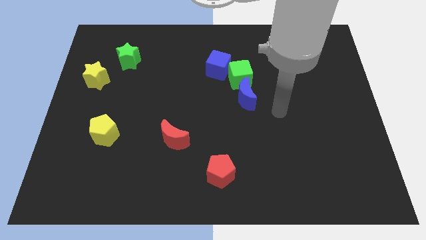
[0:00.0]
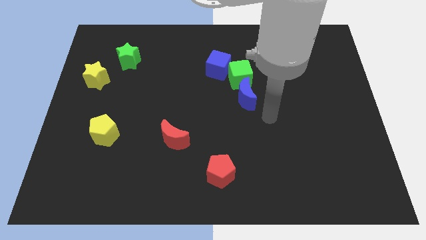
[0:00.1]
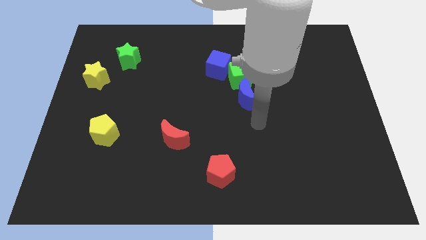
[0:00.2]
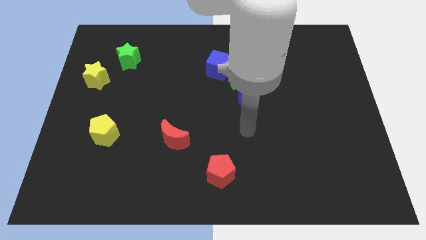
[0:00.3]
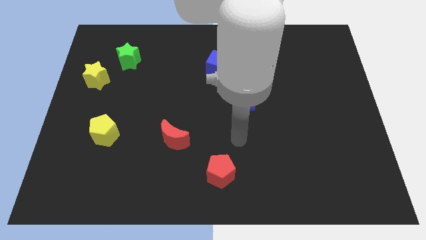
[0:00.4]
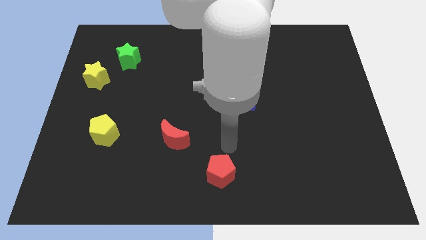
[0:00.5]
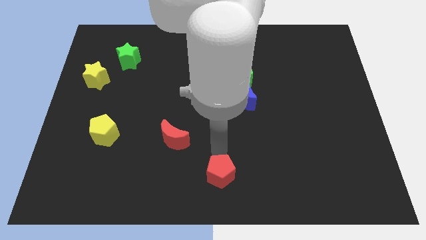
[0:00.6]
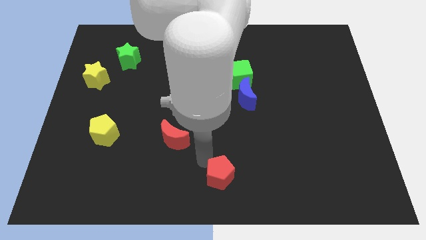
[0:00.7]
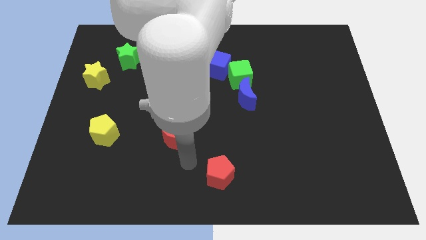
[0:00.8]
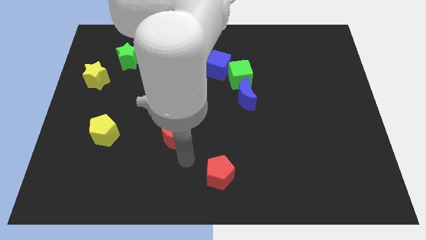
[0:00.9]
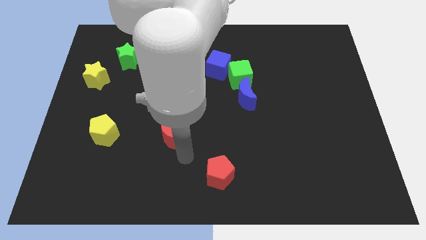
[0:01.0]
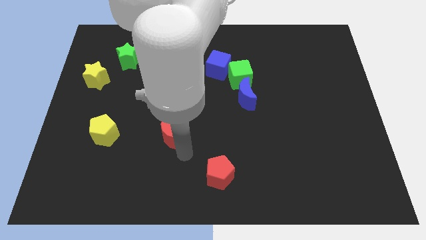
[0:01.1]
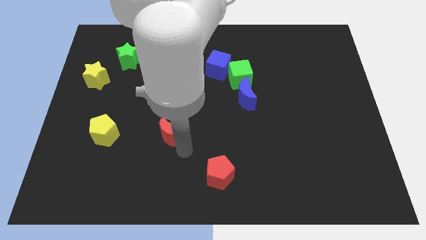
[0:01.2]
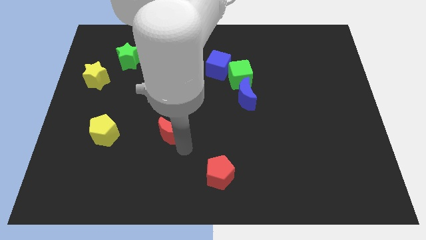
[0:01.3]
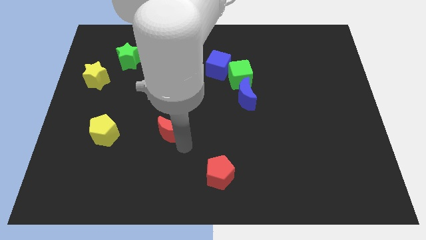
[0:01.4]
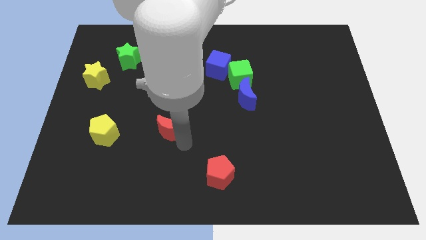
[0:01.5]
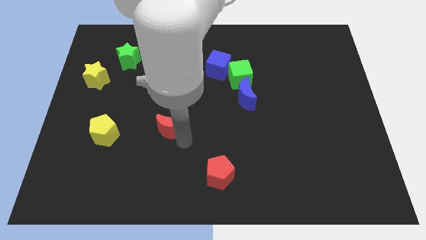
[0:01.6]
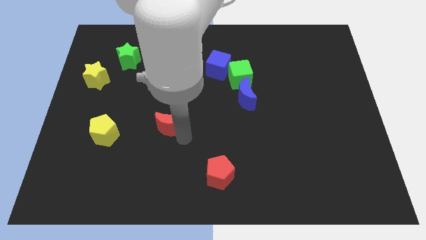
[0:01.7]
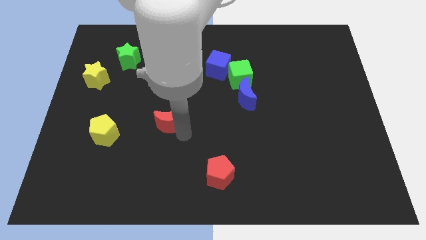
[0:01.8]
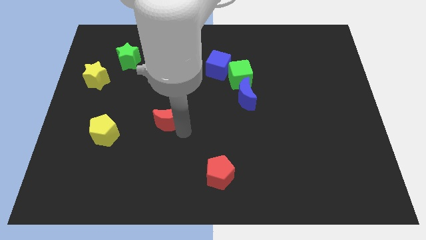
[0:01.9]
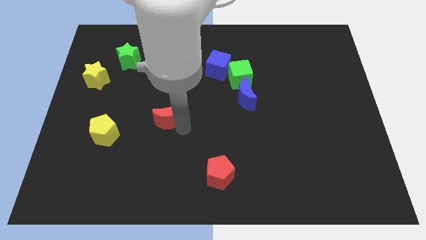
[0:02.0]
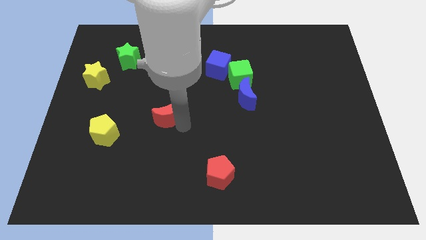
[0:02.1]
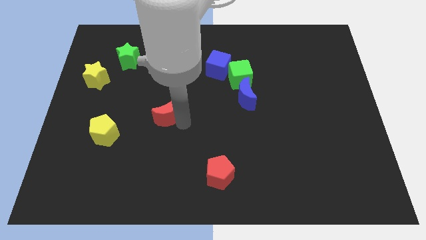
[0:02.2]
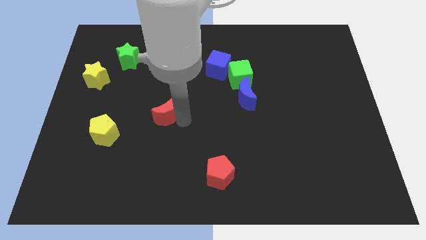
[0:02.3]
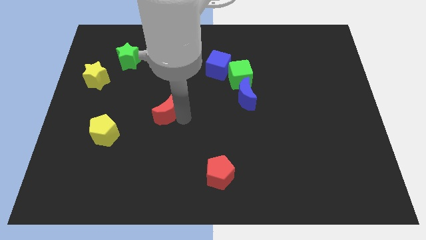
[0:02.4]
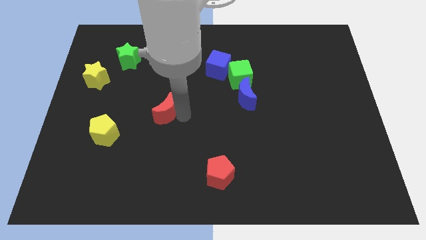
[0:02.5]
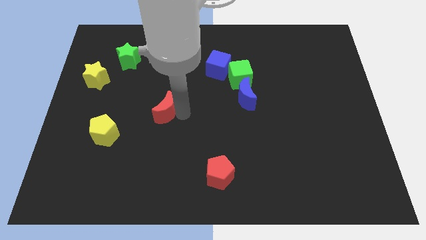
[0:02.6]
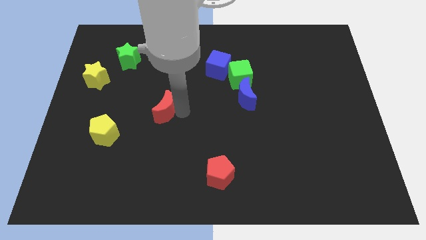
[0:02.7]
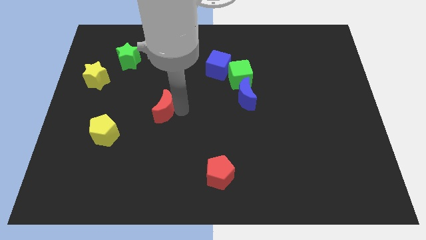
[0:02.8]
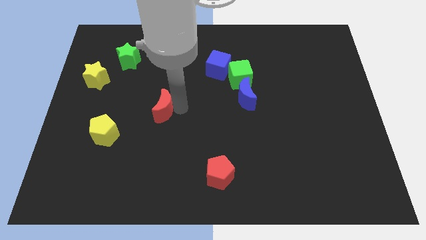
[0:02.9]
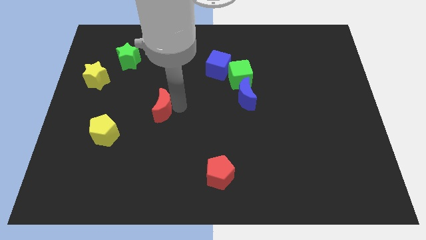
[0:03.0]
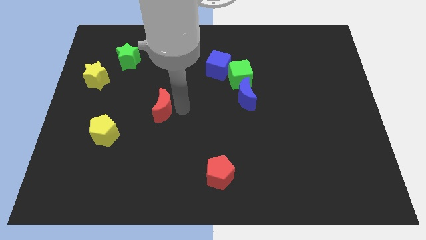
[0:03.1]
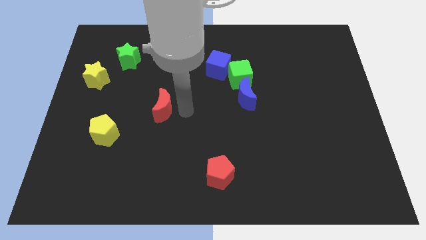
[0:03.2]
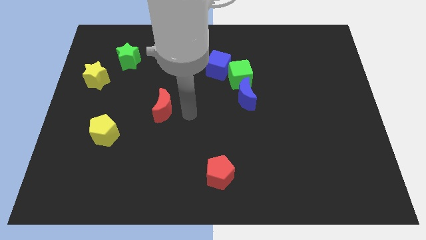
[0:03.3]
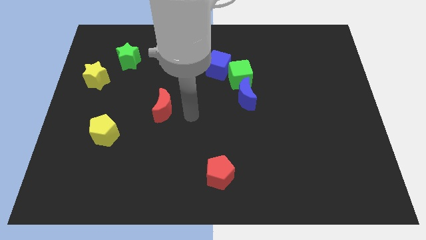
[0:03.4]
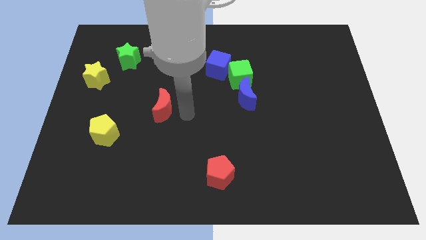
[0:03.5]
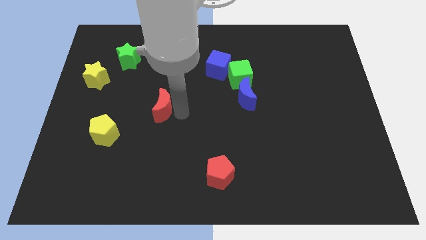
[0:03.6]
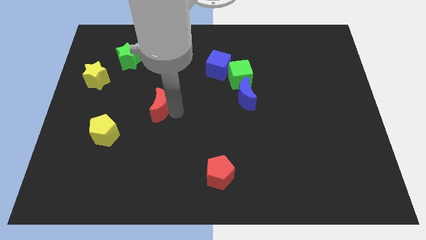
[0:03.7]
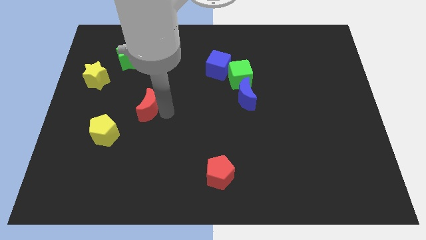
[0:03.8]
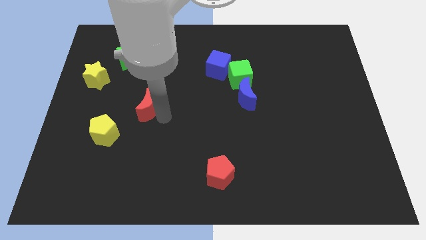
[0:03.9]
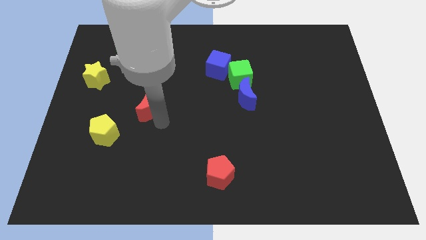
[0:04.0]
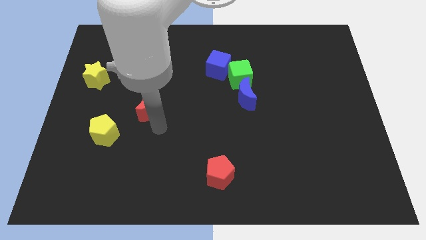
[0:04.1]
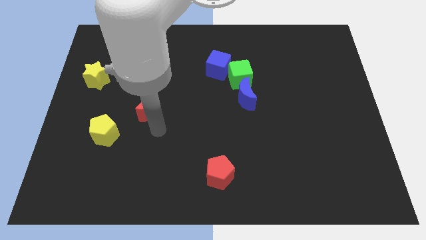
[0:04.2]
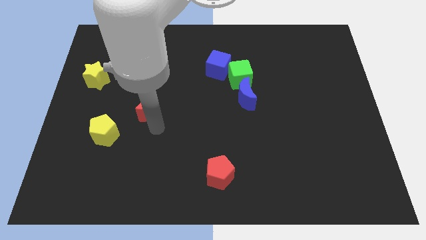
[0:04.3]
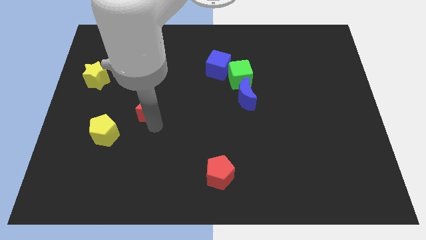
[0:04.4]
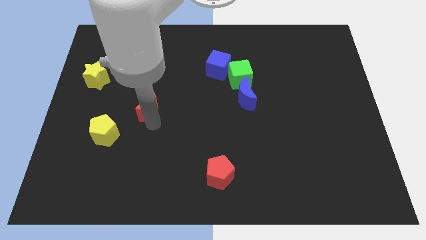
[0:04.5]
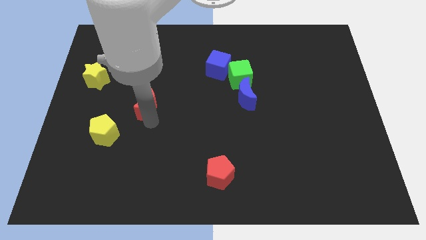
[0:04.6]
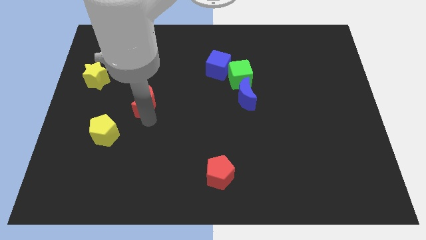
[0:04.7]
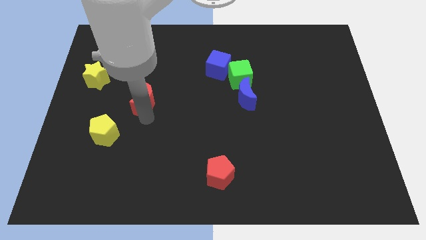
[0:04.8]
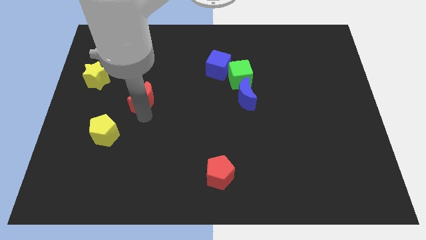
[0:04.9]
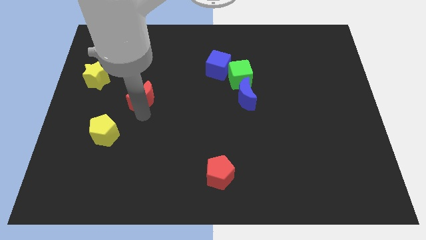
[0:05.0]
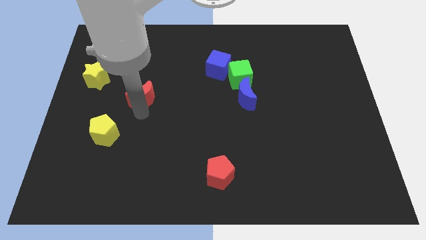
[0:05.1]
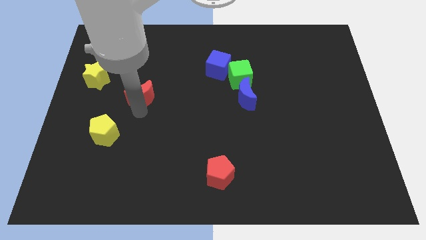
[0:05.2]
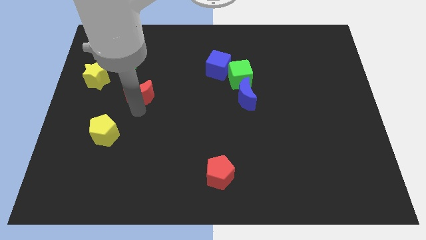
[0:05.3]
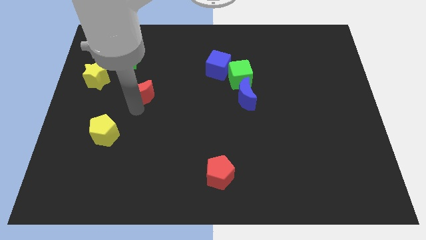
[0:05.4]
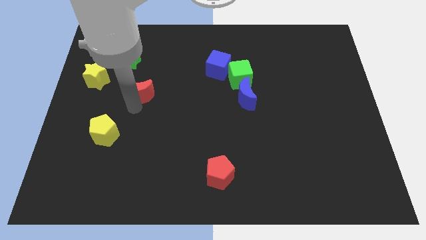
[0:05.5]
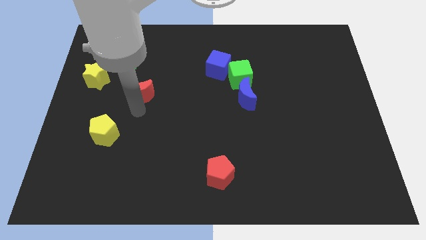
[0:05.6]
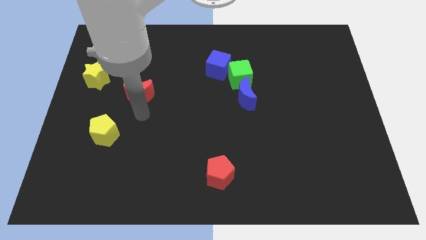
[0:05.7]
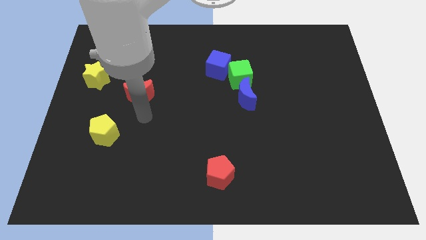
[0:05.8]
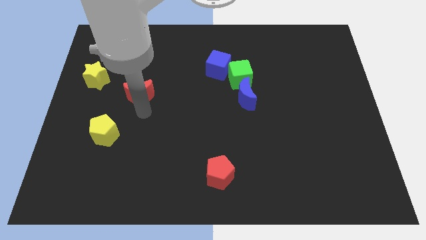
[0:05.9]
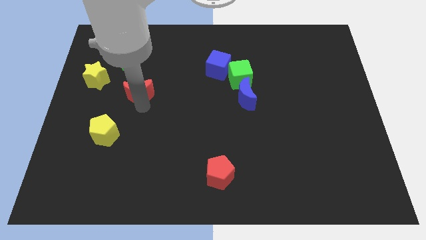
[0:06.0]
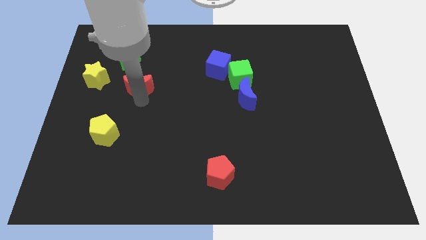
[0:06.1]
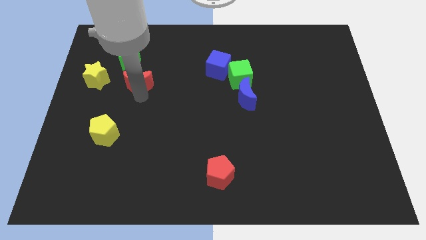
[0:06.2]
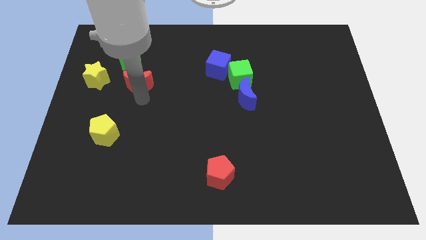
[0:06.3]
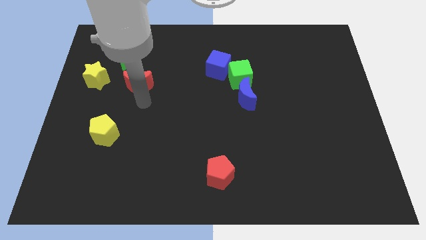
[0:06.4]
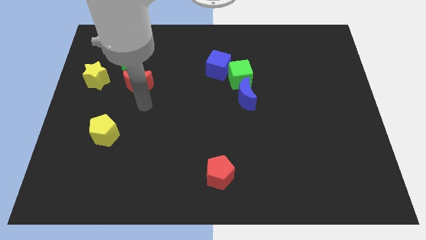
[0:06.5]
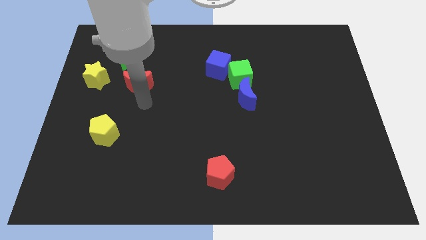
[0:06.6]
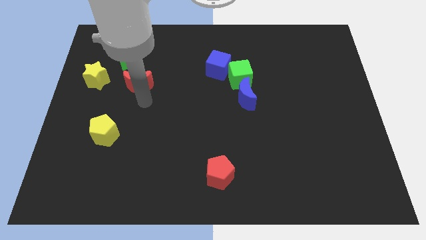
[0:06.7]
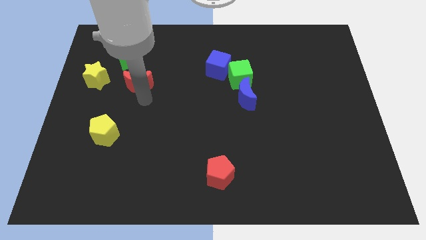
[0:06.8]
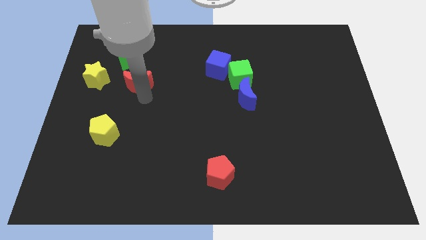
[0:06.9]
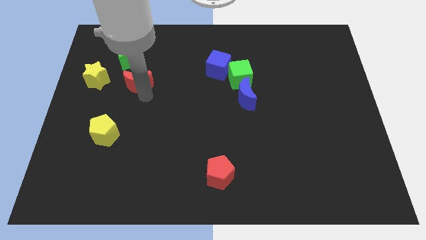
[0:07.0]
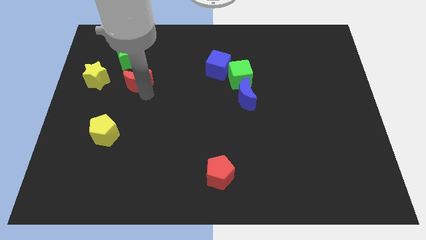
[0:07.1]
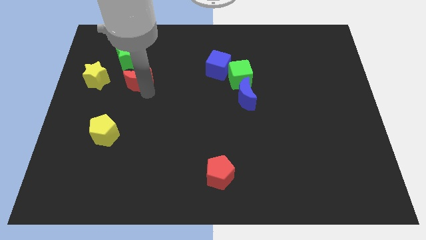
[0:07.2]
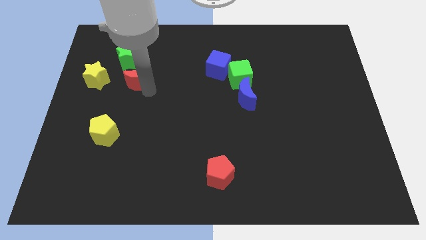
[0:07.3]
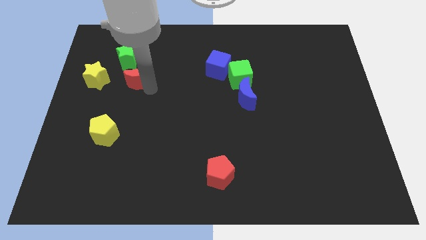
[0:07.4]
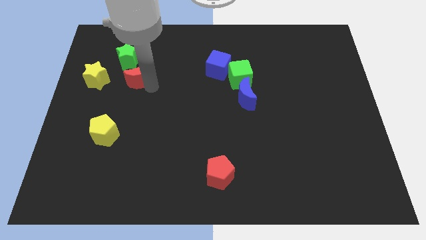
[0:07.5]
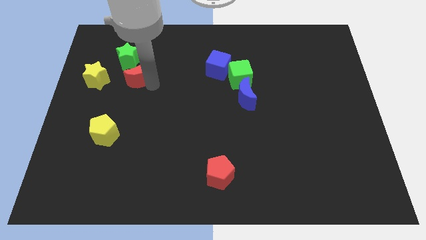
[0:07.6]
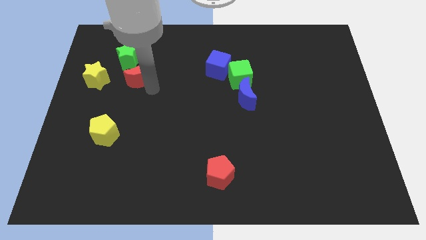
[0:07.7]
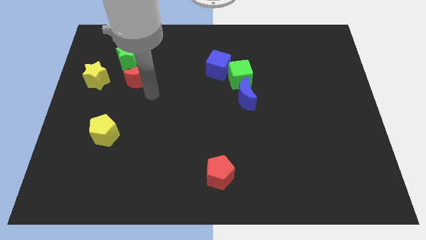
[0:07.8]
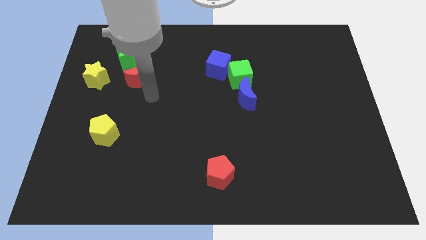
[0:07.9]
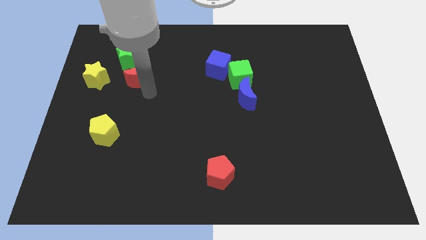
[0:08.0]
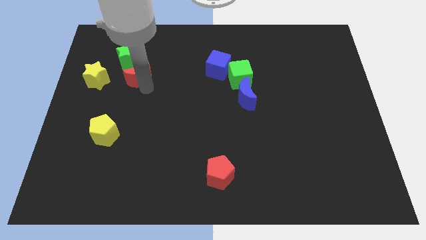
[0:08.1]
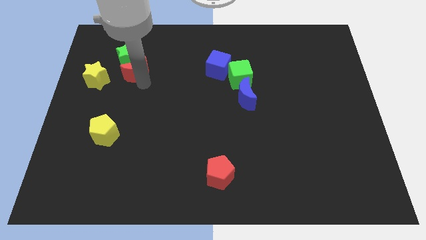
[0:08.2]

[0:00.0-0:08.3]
put the red moon next to the green star
